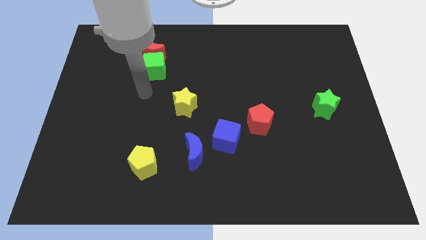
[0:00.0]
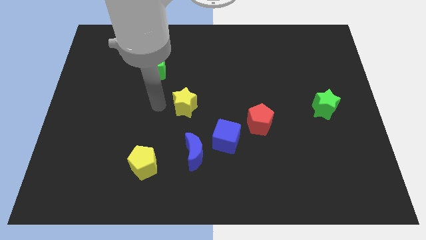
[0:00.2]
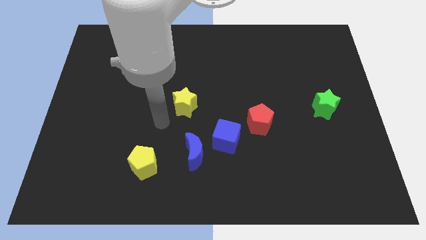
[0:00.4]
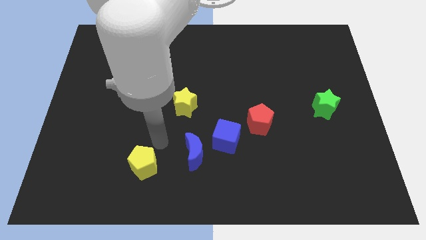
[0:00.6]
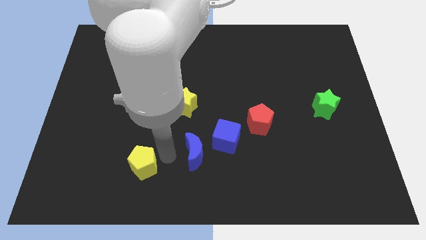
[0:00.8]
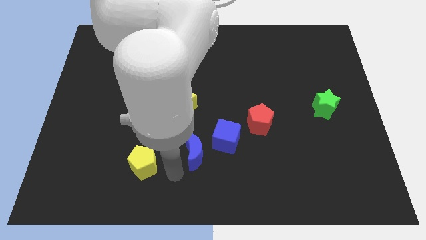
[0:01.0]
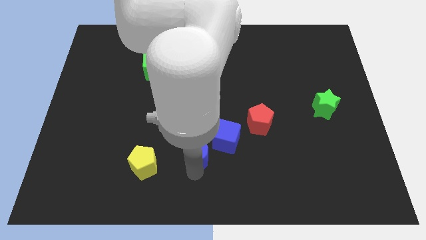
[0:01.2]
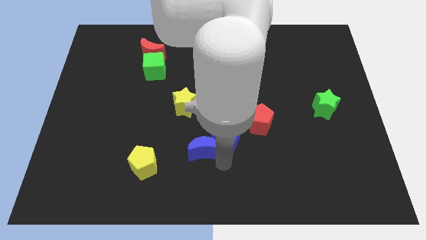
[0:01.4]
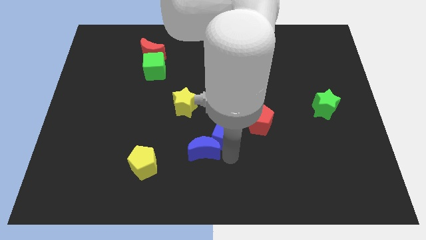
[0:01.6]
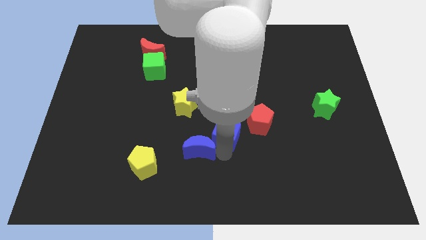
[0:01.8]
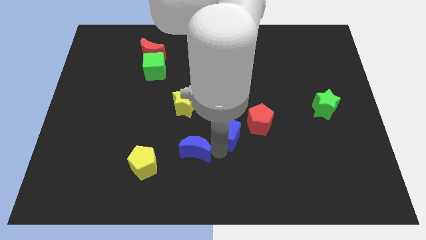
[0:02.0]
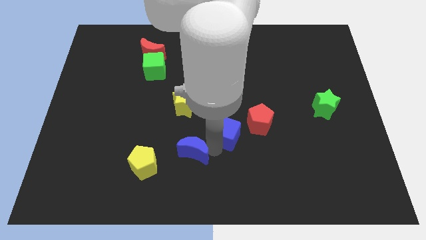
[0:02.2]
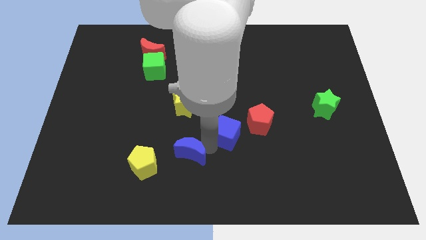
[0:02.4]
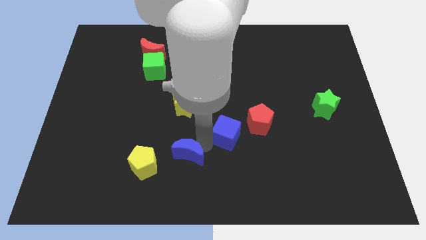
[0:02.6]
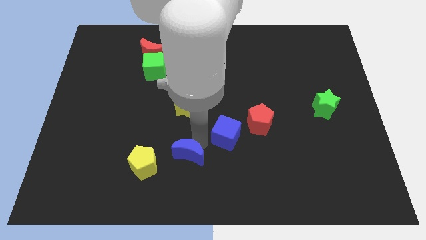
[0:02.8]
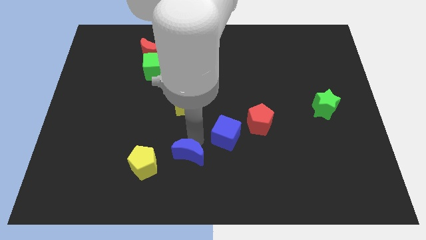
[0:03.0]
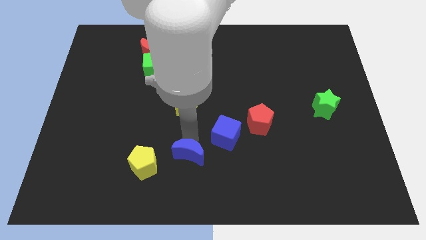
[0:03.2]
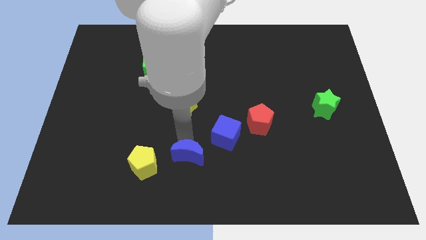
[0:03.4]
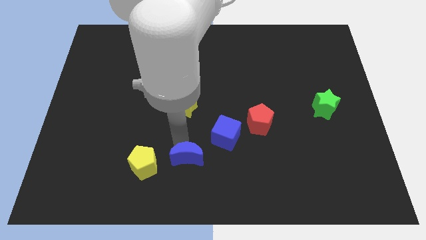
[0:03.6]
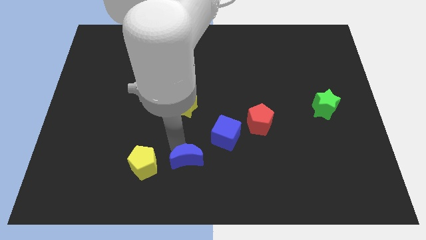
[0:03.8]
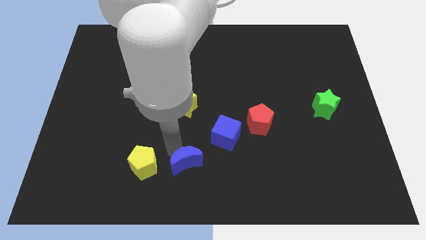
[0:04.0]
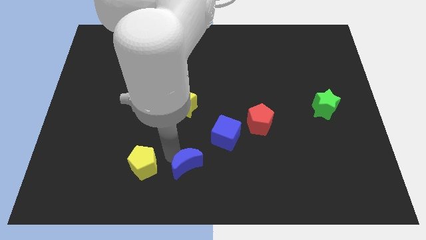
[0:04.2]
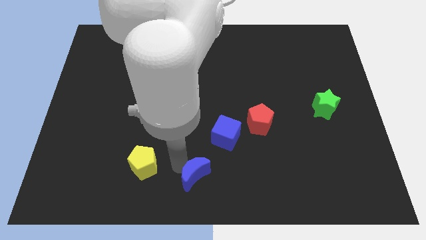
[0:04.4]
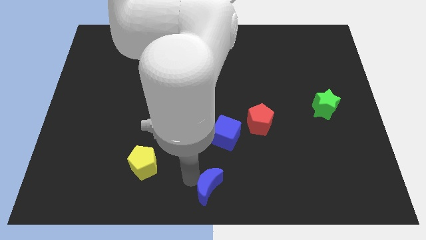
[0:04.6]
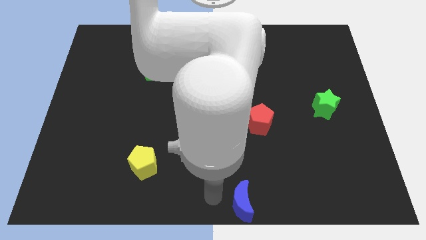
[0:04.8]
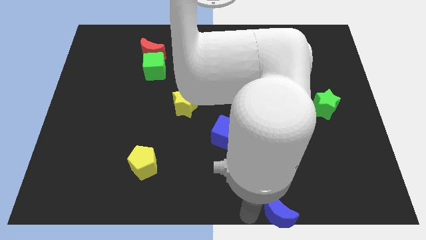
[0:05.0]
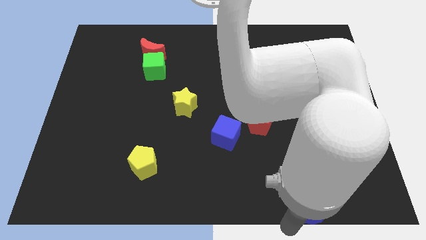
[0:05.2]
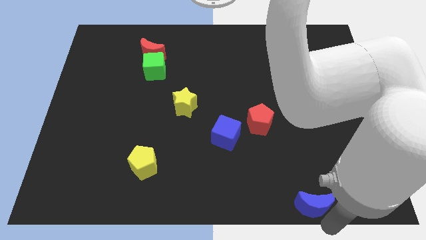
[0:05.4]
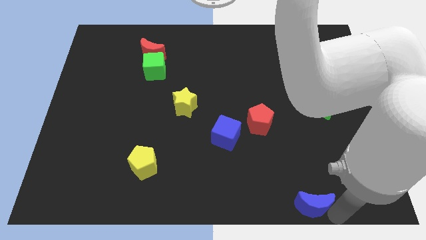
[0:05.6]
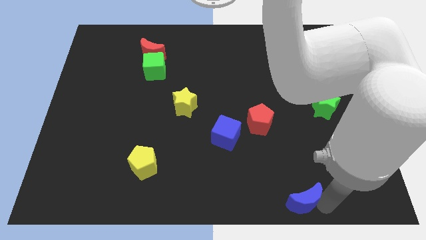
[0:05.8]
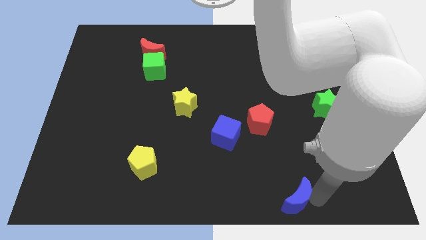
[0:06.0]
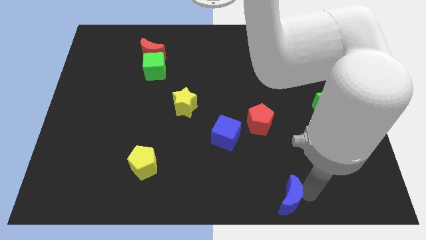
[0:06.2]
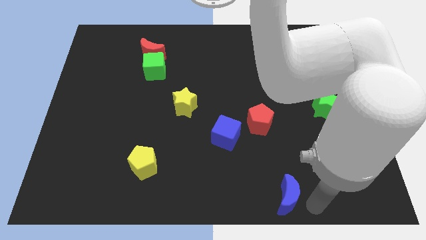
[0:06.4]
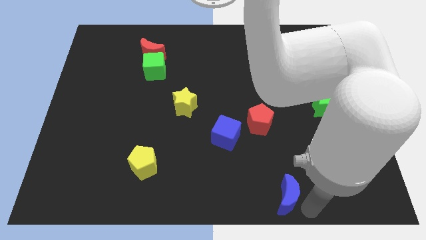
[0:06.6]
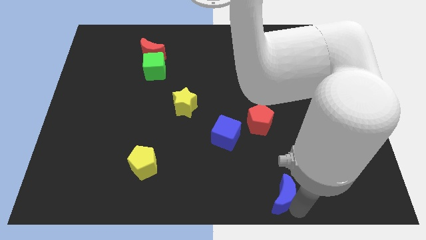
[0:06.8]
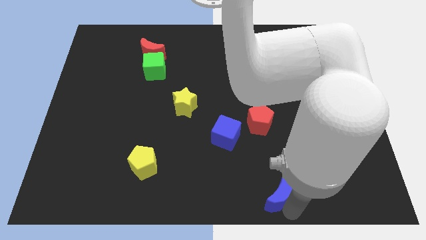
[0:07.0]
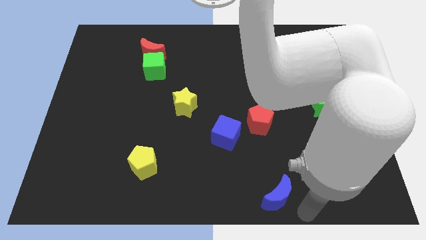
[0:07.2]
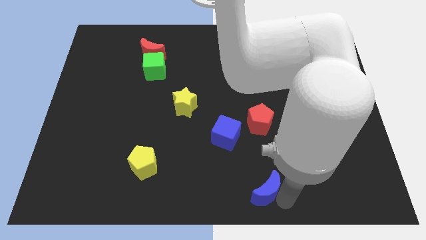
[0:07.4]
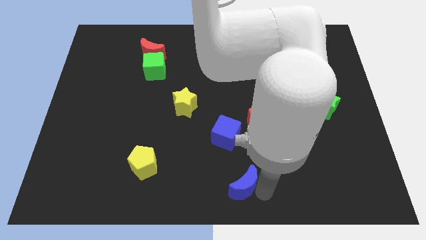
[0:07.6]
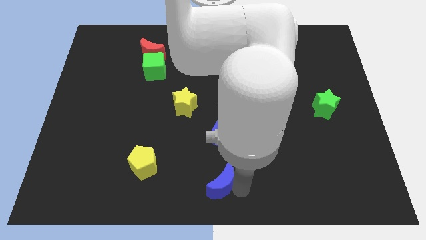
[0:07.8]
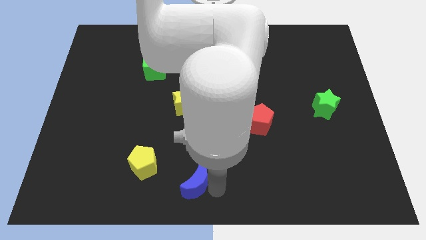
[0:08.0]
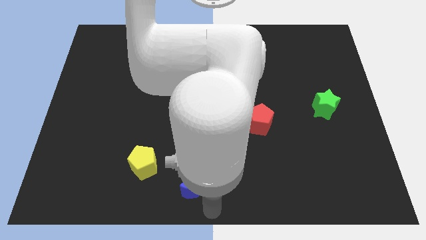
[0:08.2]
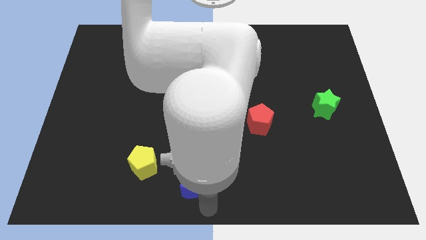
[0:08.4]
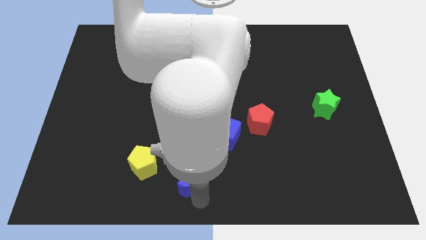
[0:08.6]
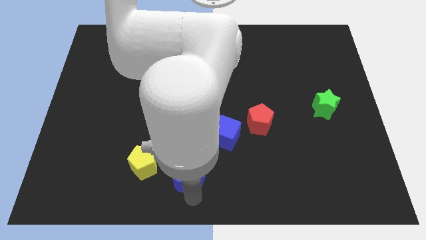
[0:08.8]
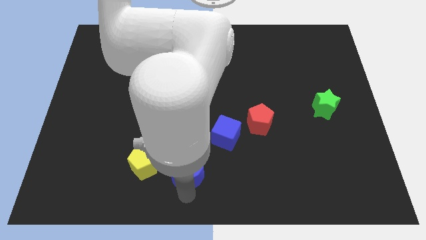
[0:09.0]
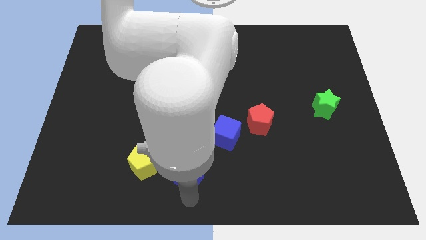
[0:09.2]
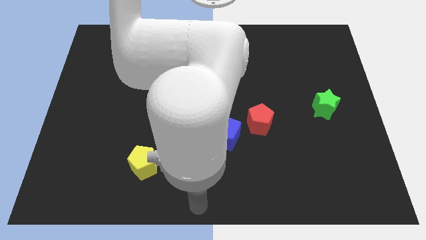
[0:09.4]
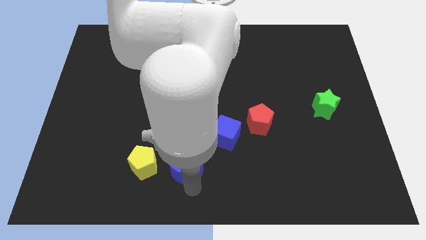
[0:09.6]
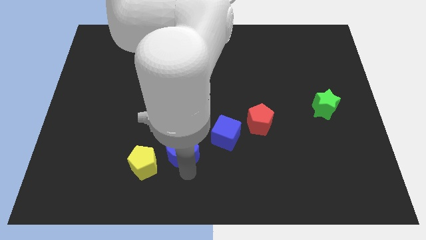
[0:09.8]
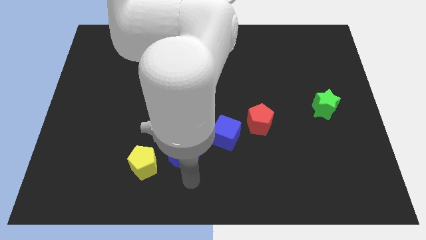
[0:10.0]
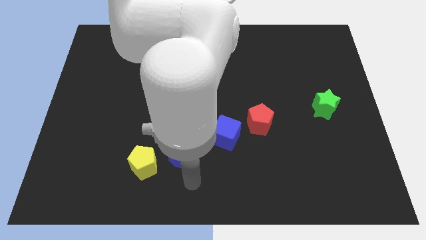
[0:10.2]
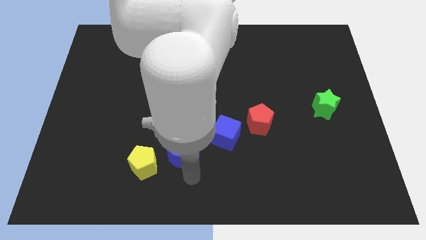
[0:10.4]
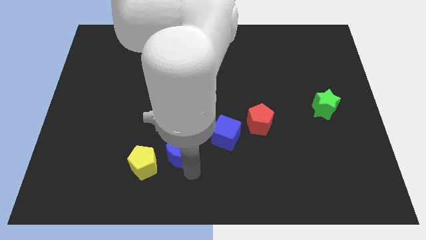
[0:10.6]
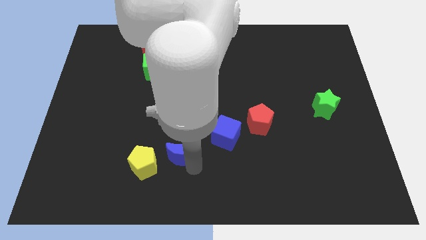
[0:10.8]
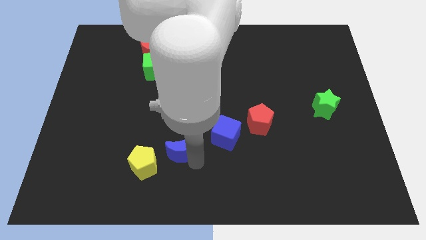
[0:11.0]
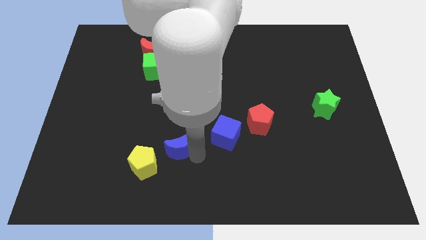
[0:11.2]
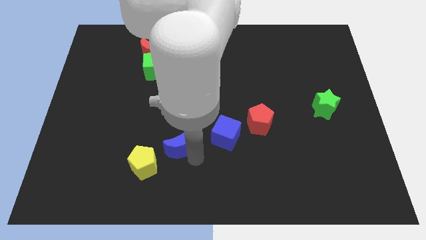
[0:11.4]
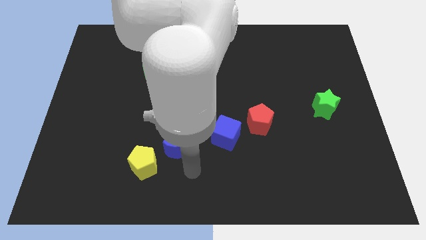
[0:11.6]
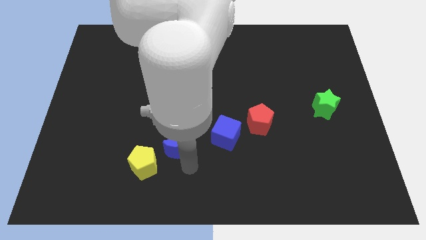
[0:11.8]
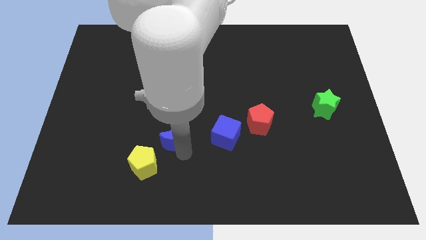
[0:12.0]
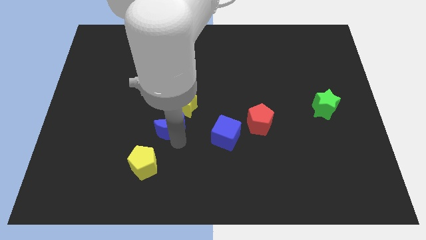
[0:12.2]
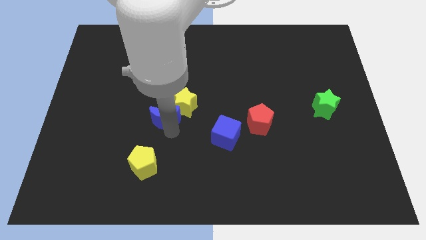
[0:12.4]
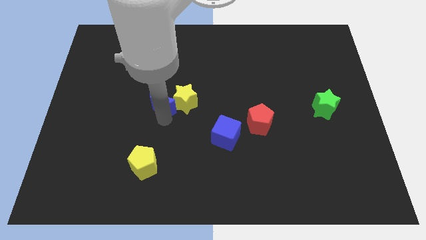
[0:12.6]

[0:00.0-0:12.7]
slide the blue moon to the top left side of the yellow star

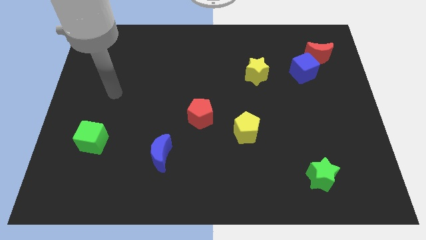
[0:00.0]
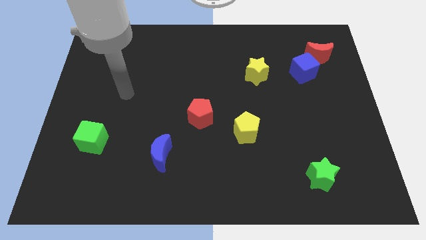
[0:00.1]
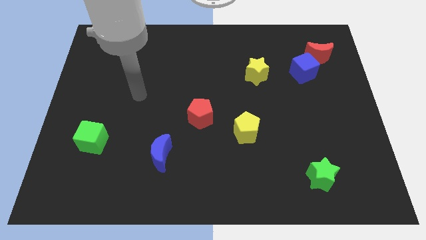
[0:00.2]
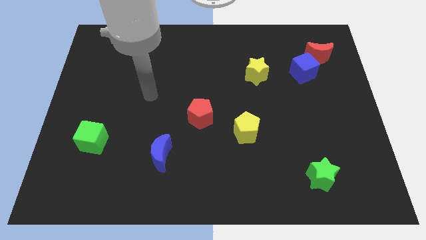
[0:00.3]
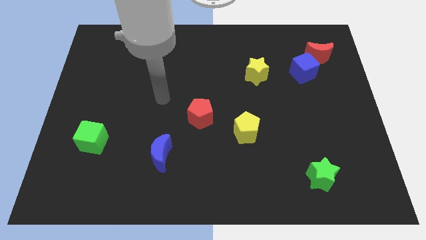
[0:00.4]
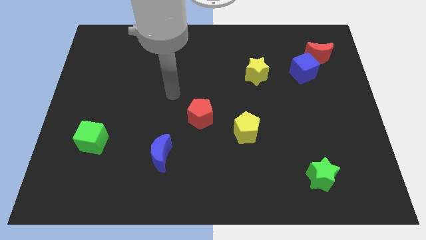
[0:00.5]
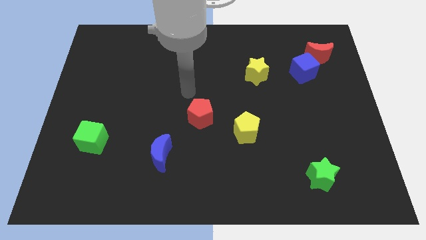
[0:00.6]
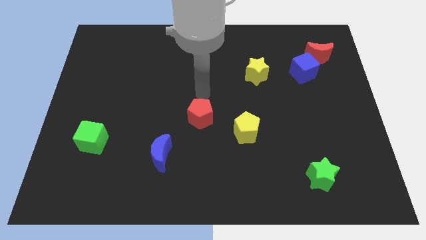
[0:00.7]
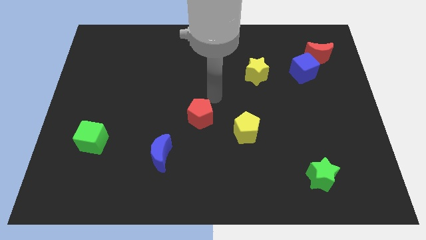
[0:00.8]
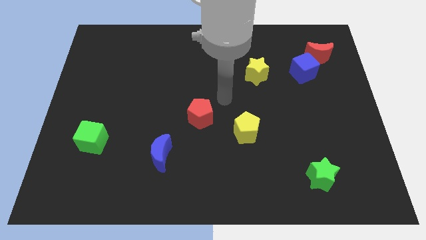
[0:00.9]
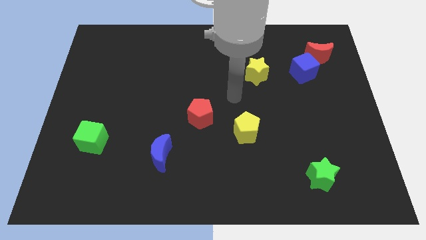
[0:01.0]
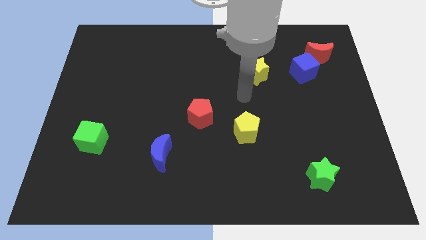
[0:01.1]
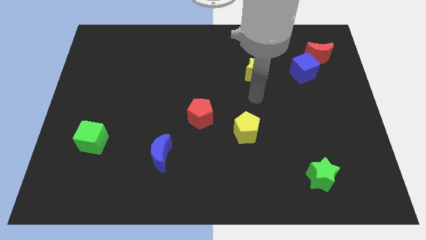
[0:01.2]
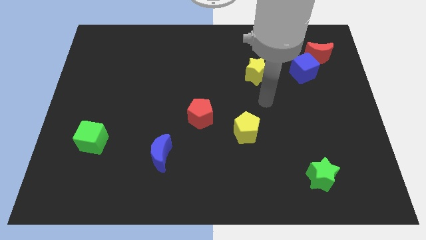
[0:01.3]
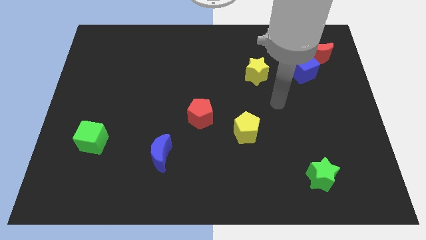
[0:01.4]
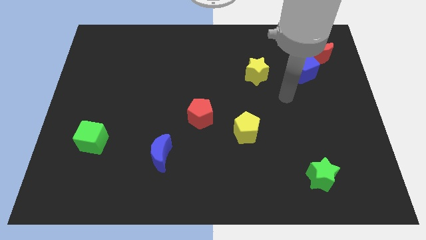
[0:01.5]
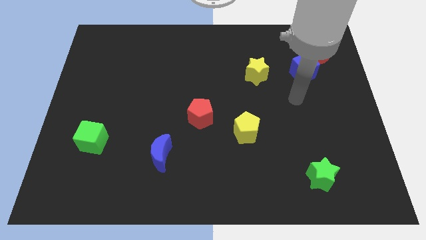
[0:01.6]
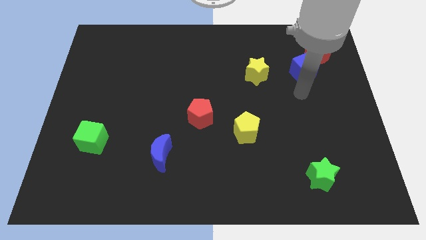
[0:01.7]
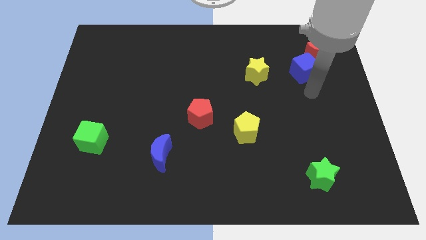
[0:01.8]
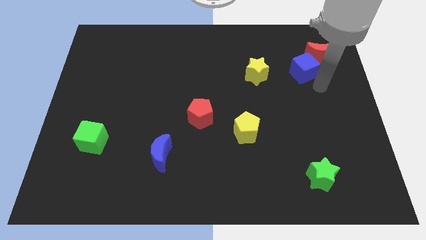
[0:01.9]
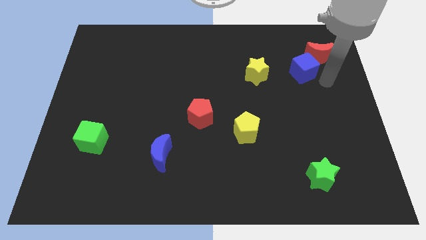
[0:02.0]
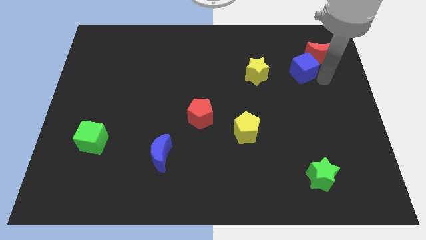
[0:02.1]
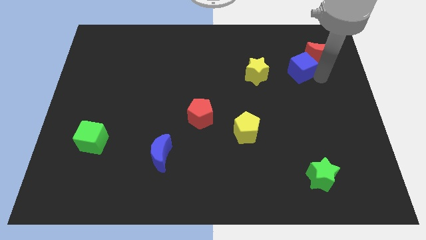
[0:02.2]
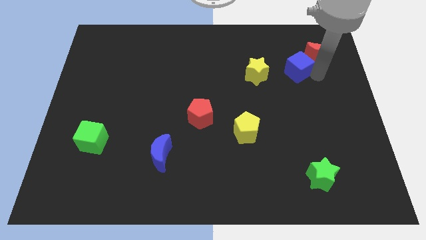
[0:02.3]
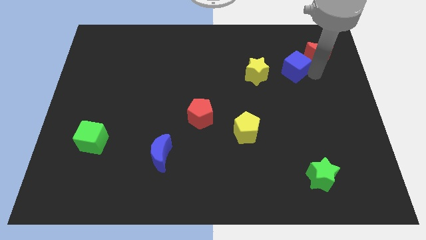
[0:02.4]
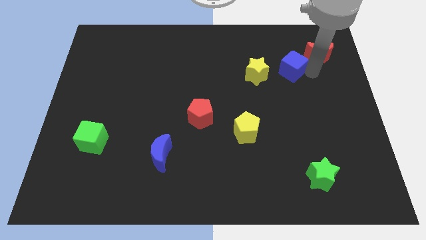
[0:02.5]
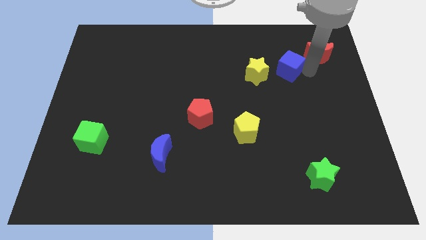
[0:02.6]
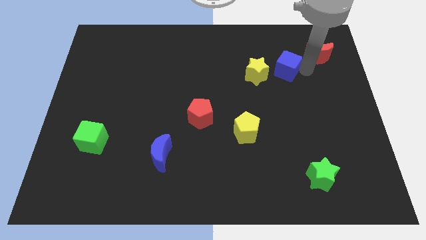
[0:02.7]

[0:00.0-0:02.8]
push the blue cube to the top right side of the yellow star
